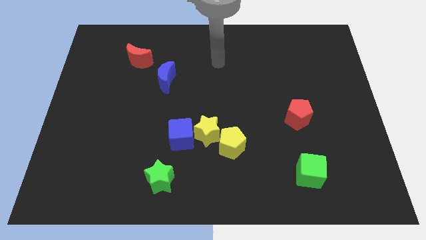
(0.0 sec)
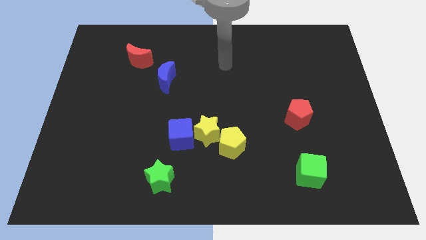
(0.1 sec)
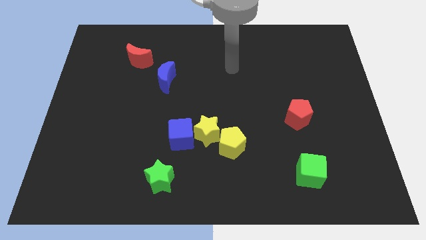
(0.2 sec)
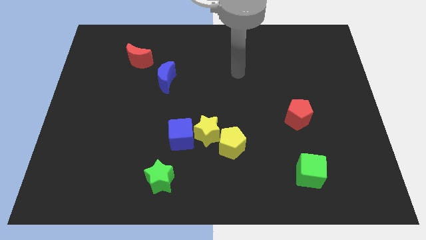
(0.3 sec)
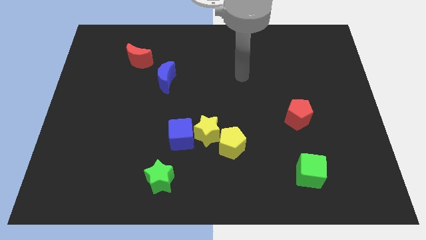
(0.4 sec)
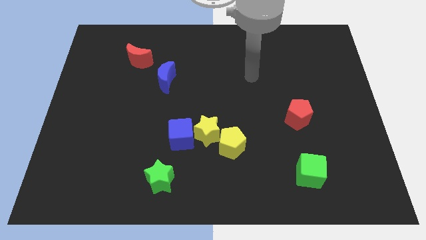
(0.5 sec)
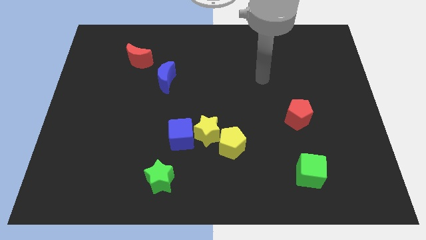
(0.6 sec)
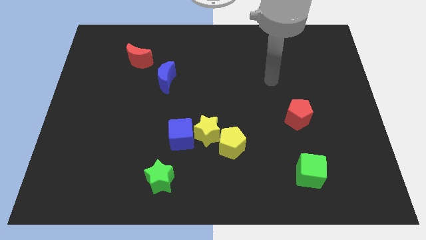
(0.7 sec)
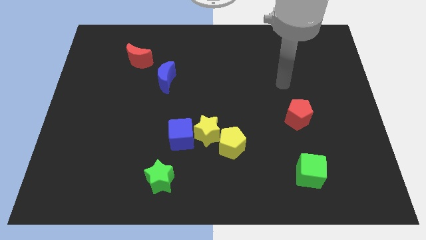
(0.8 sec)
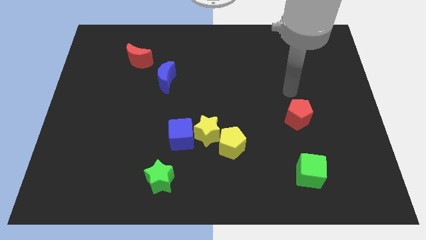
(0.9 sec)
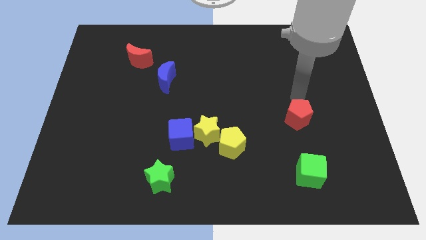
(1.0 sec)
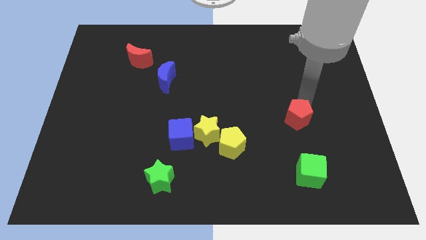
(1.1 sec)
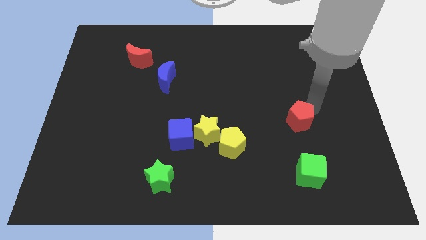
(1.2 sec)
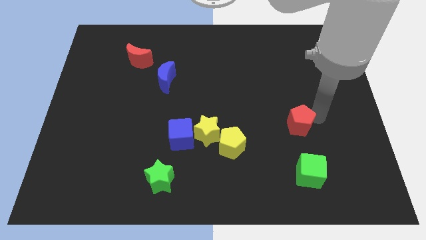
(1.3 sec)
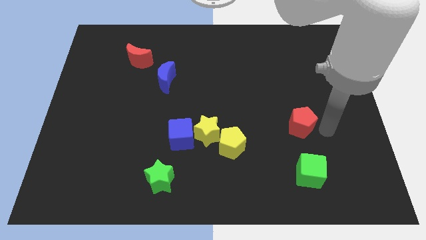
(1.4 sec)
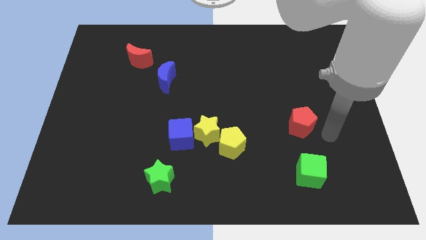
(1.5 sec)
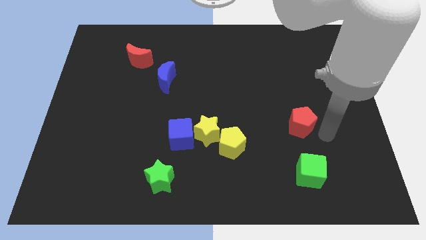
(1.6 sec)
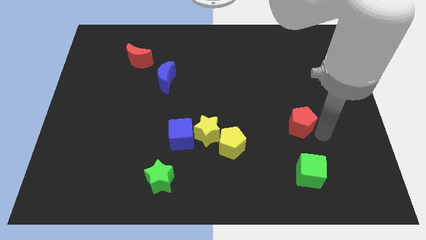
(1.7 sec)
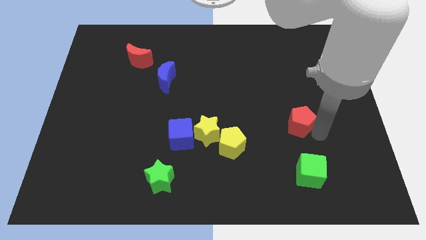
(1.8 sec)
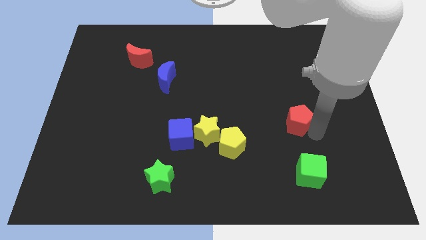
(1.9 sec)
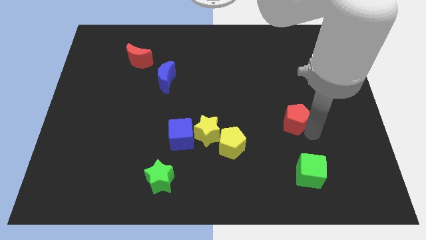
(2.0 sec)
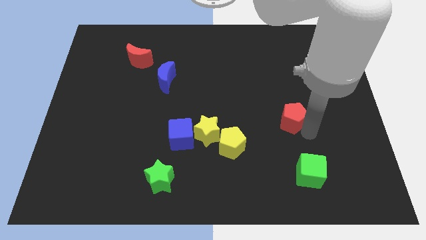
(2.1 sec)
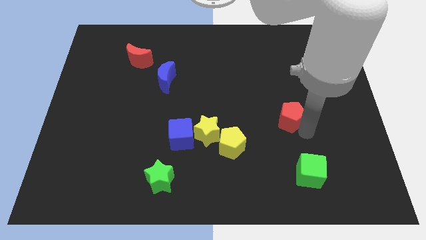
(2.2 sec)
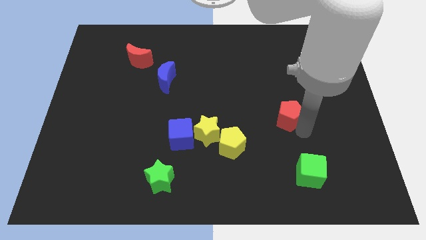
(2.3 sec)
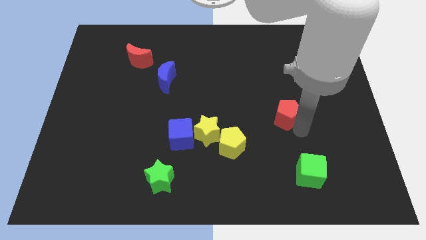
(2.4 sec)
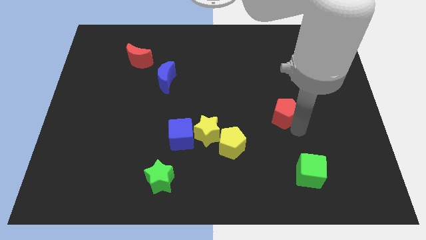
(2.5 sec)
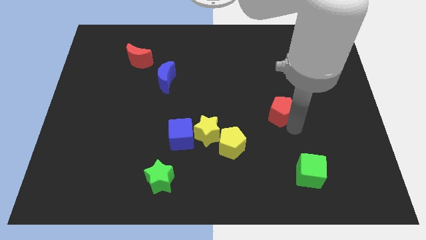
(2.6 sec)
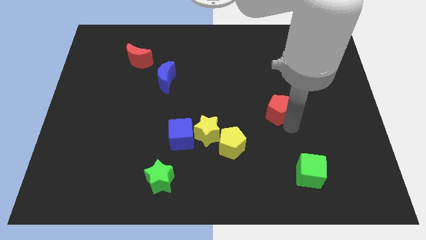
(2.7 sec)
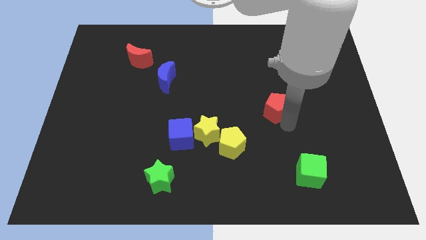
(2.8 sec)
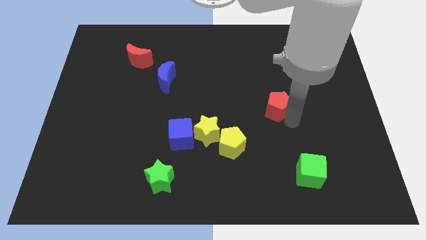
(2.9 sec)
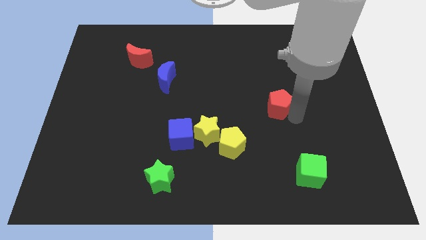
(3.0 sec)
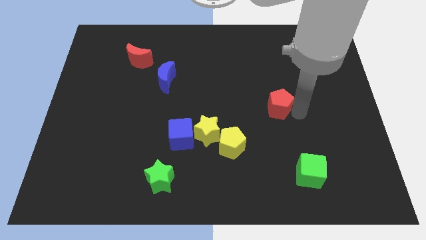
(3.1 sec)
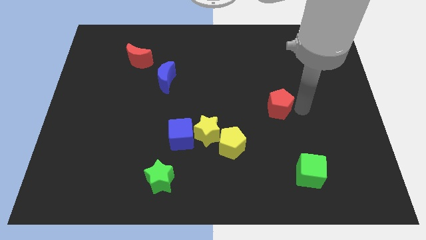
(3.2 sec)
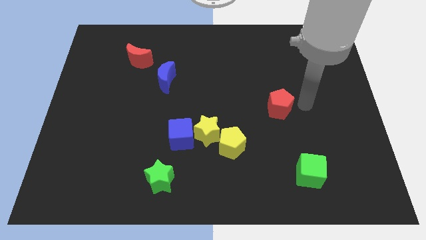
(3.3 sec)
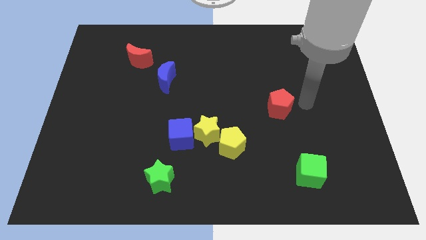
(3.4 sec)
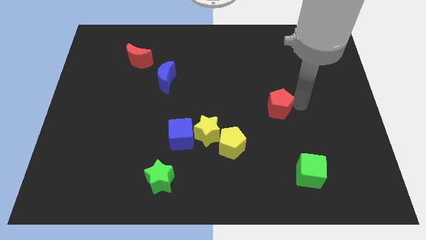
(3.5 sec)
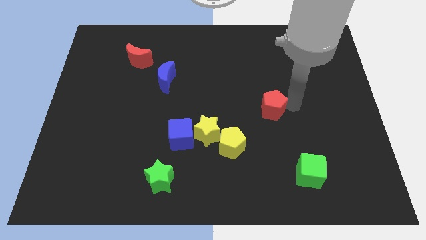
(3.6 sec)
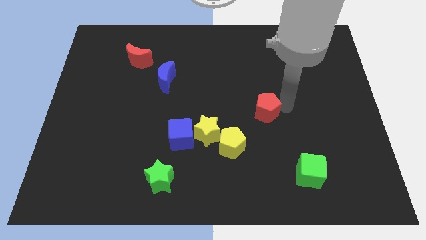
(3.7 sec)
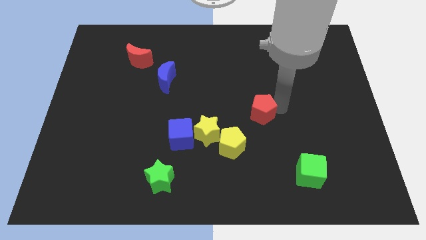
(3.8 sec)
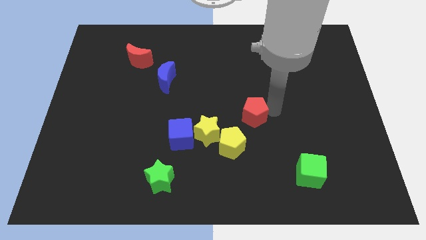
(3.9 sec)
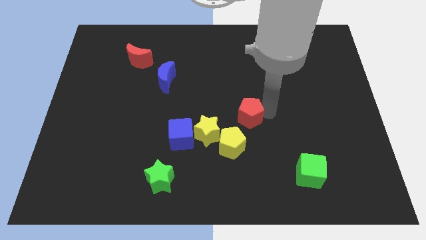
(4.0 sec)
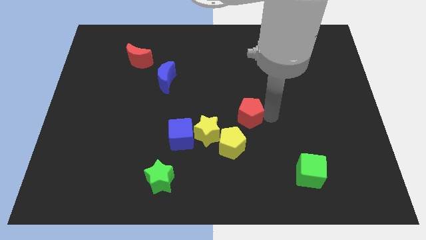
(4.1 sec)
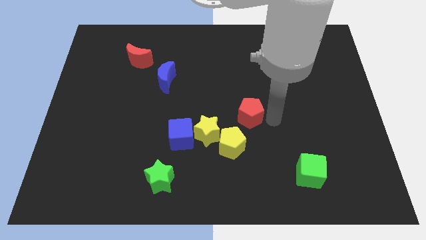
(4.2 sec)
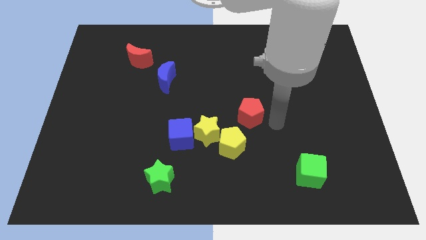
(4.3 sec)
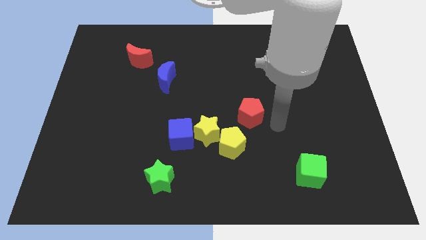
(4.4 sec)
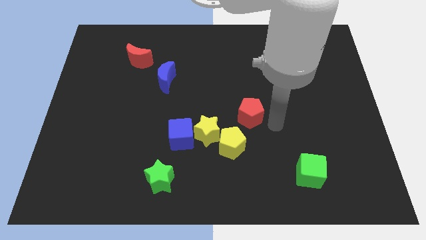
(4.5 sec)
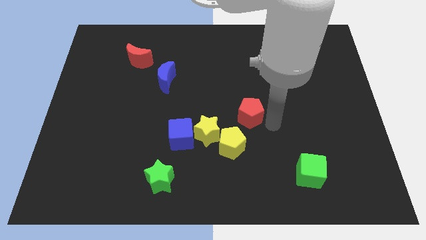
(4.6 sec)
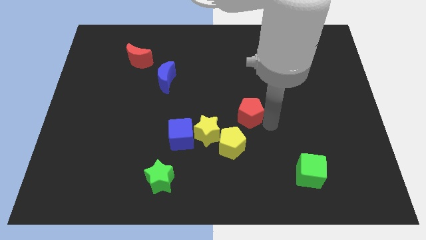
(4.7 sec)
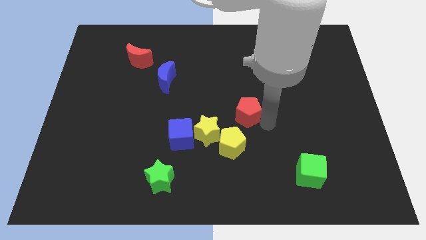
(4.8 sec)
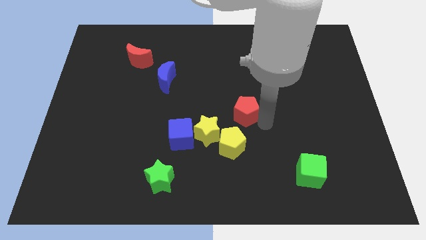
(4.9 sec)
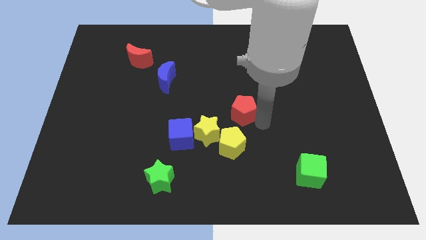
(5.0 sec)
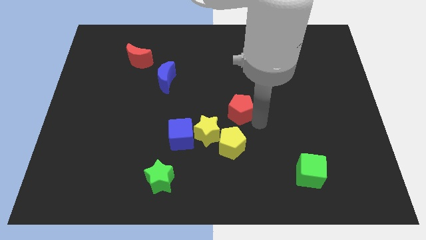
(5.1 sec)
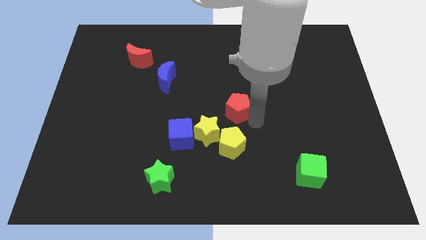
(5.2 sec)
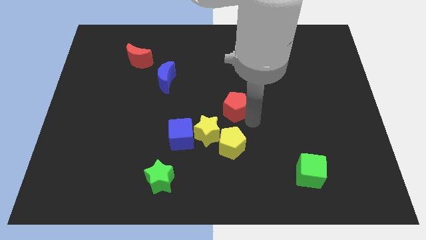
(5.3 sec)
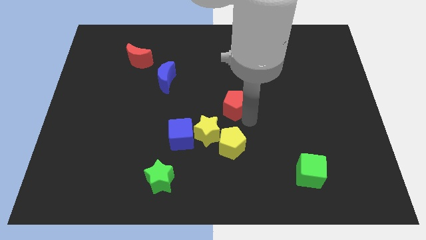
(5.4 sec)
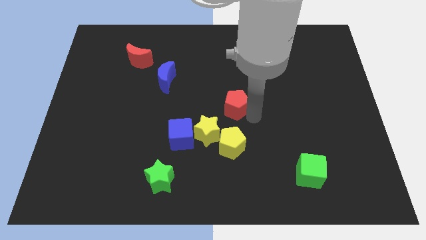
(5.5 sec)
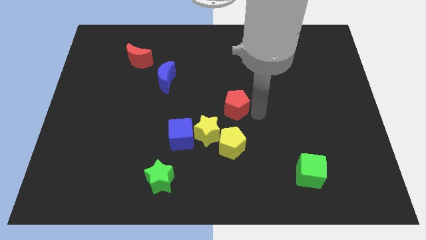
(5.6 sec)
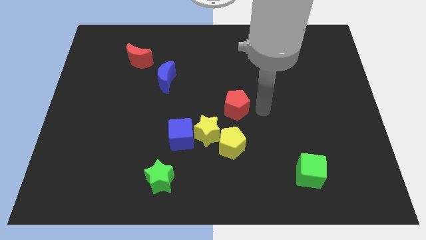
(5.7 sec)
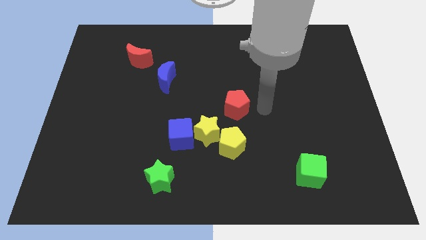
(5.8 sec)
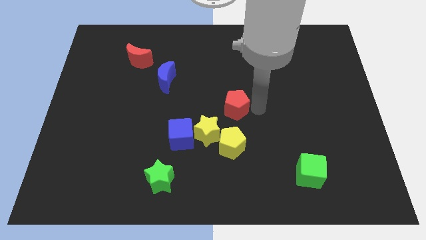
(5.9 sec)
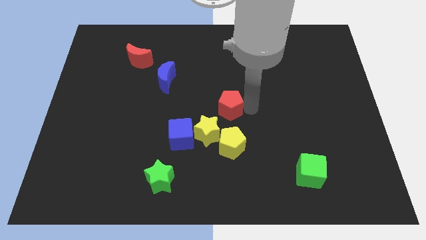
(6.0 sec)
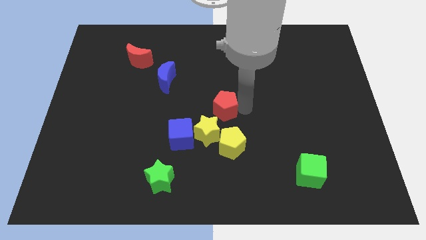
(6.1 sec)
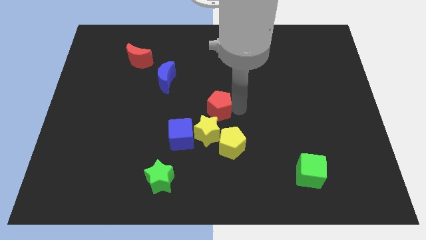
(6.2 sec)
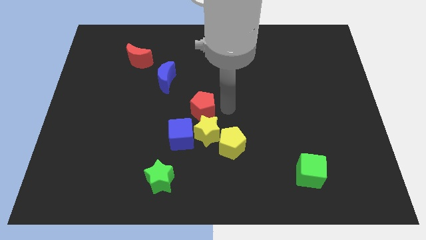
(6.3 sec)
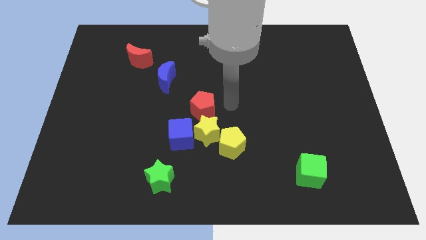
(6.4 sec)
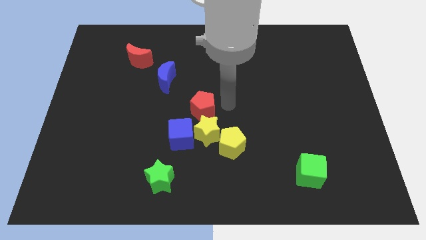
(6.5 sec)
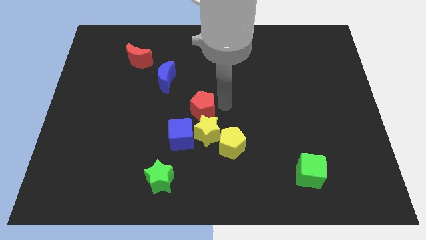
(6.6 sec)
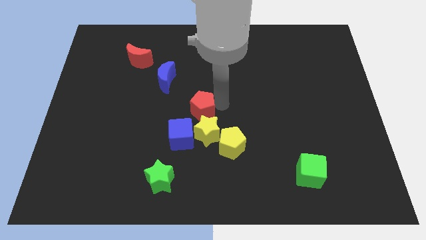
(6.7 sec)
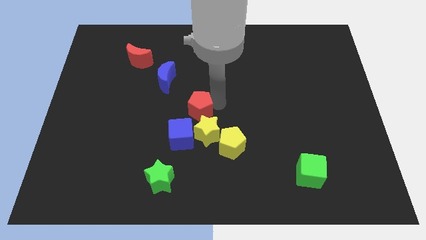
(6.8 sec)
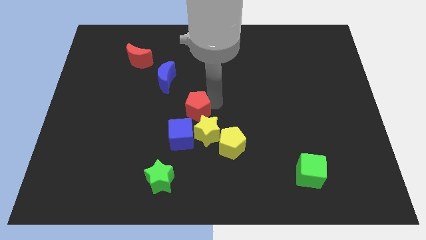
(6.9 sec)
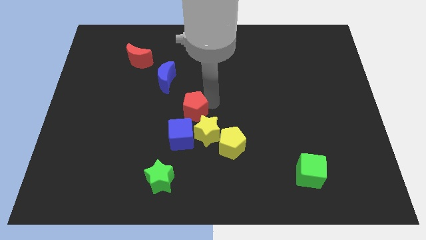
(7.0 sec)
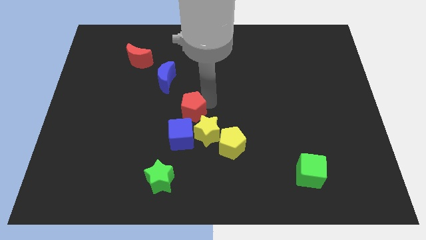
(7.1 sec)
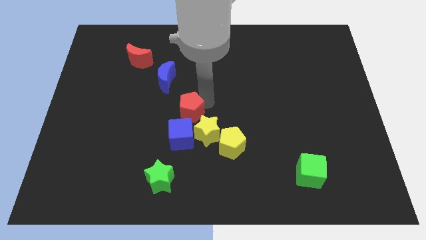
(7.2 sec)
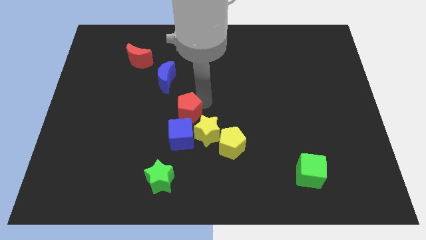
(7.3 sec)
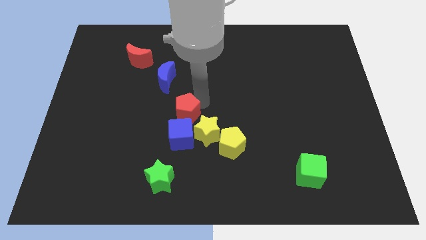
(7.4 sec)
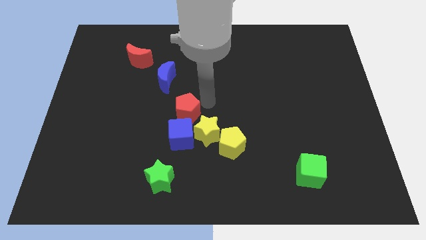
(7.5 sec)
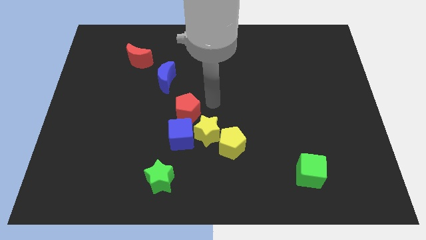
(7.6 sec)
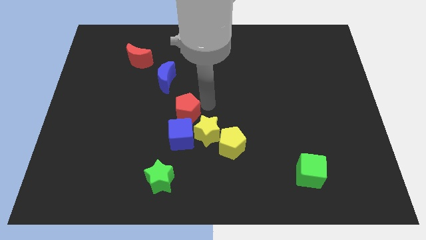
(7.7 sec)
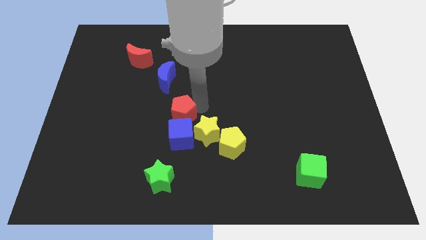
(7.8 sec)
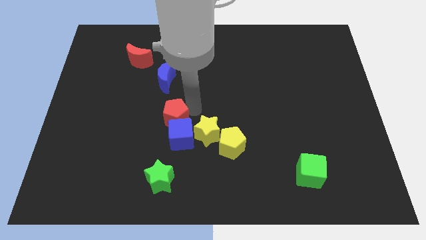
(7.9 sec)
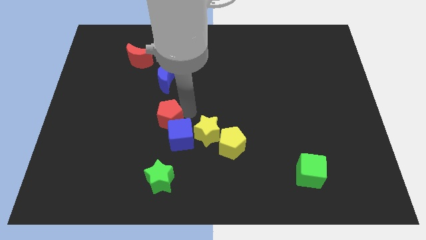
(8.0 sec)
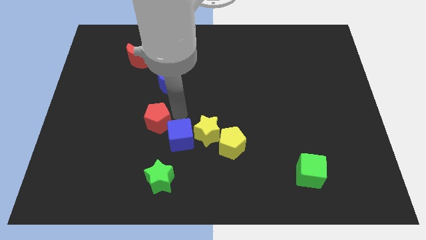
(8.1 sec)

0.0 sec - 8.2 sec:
put the red pentagon just left of the blue cube
